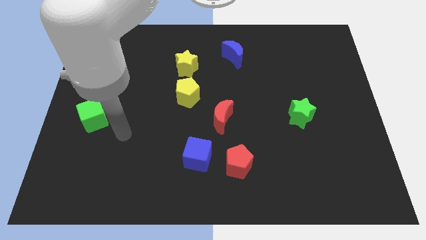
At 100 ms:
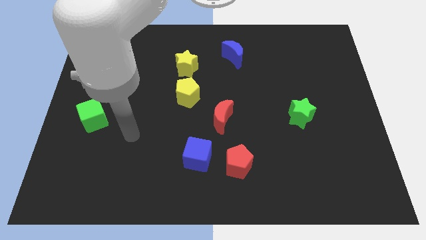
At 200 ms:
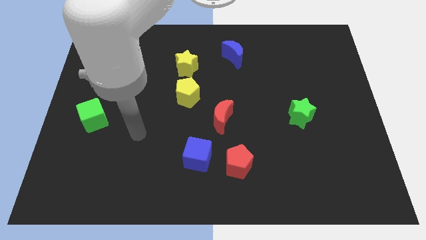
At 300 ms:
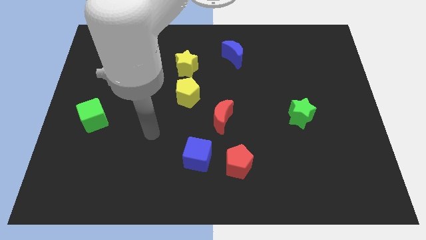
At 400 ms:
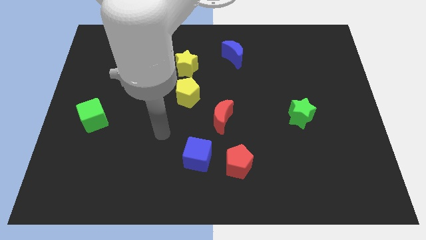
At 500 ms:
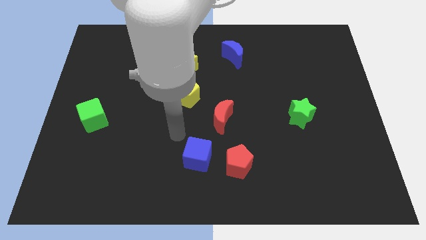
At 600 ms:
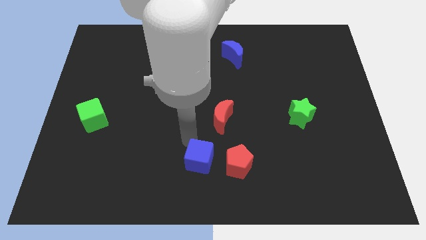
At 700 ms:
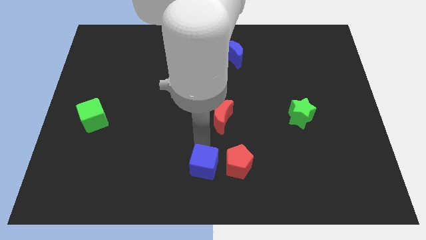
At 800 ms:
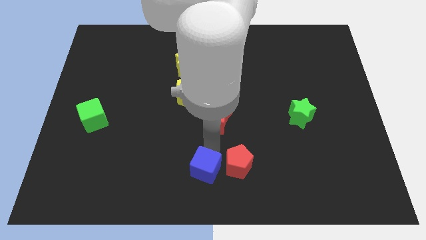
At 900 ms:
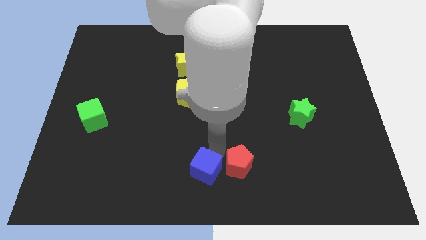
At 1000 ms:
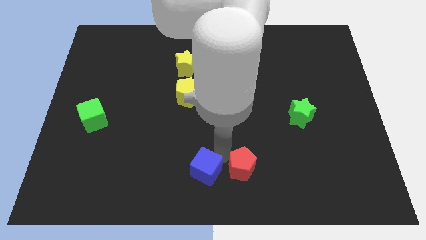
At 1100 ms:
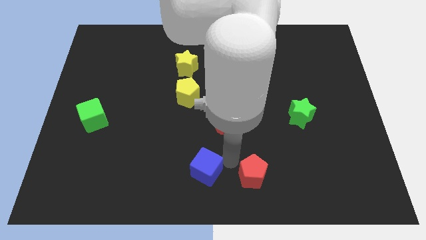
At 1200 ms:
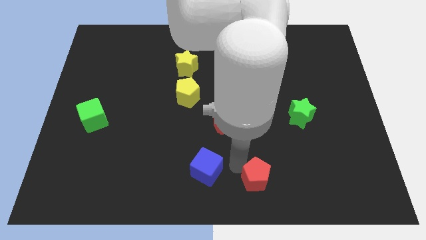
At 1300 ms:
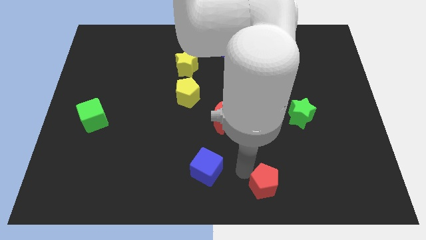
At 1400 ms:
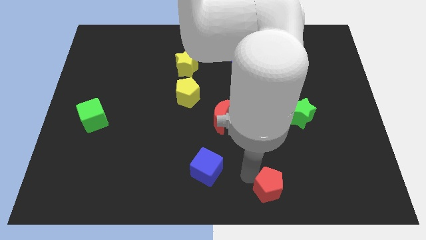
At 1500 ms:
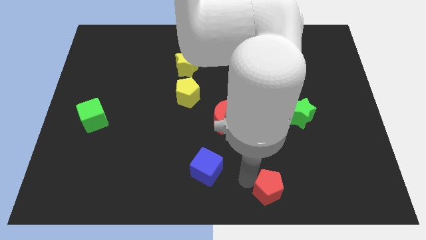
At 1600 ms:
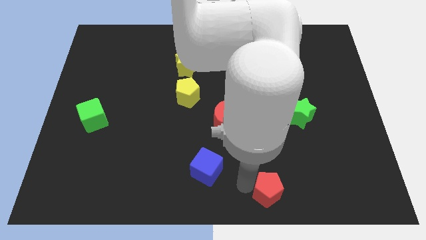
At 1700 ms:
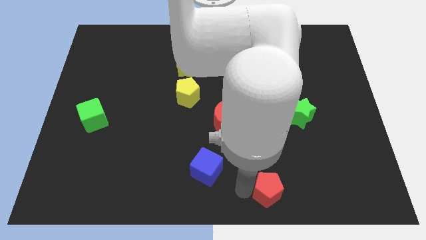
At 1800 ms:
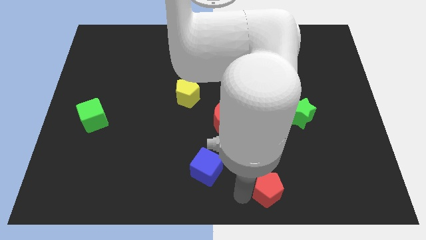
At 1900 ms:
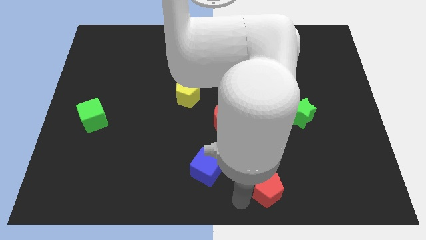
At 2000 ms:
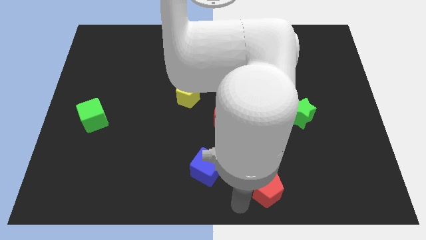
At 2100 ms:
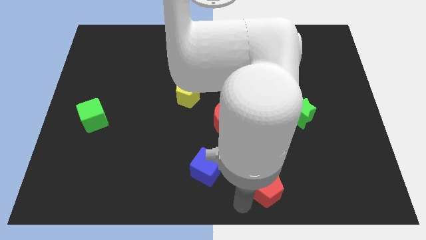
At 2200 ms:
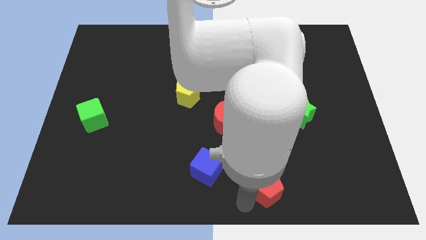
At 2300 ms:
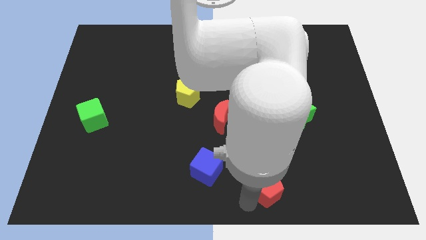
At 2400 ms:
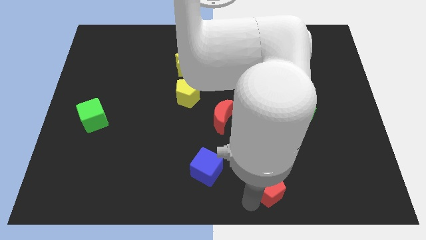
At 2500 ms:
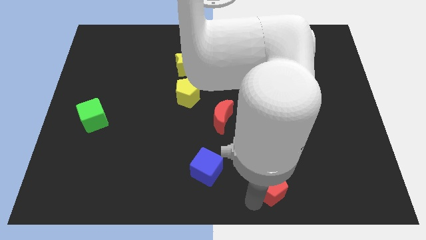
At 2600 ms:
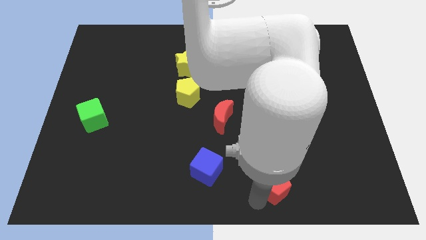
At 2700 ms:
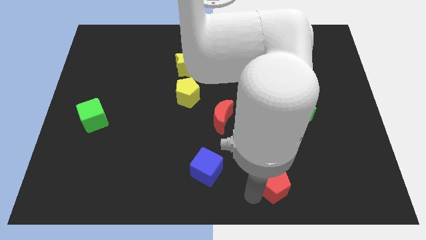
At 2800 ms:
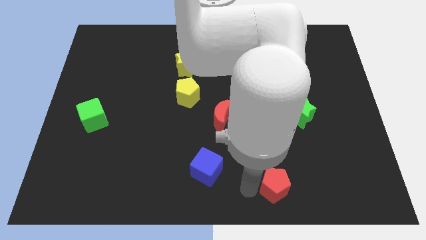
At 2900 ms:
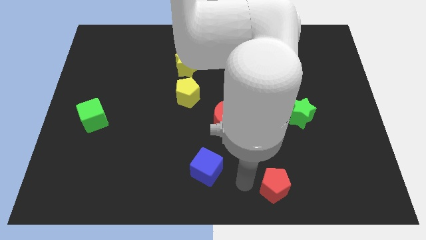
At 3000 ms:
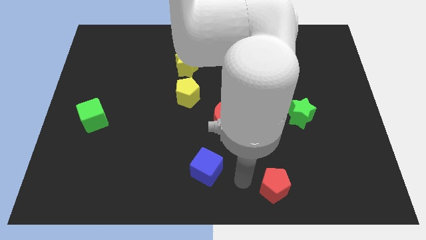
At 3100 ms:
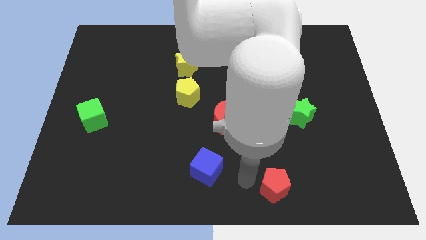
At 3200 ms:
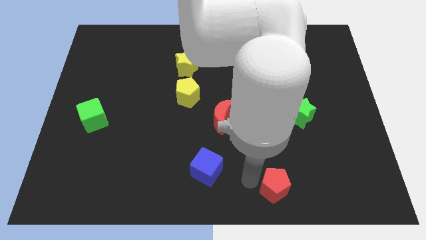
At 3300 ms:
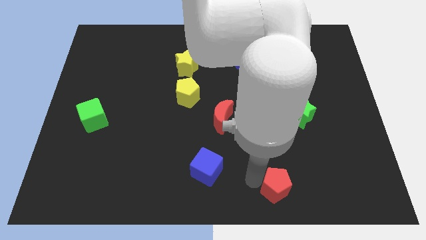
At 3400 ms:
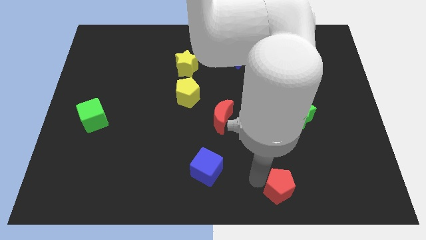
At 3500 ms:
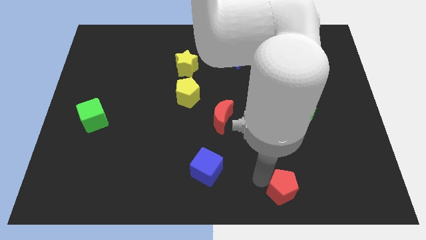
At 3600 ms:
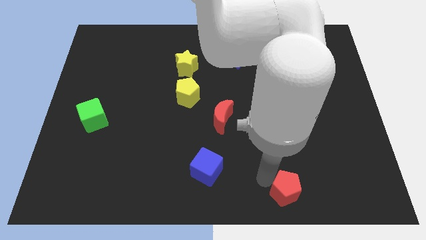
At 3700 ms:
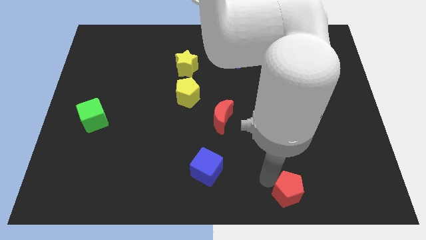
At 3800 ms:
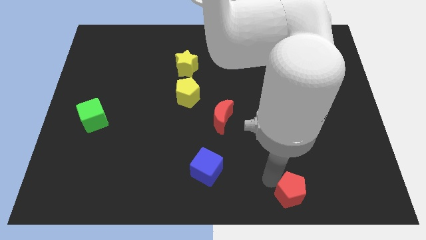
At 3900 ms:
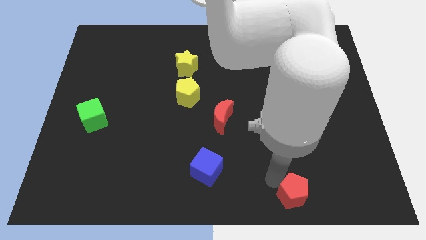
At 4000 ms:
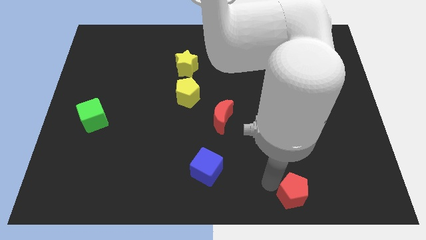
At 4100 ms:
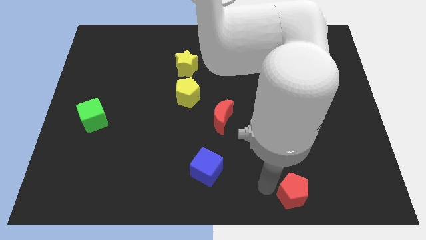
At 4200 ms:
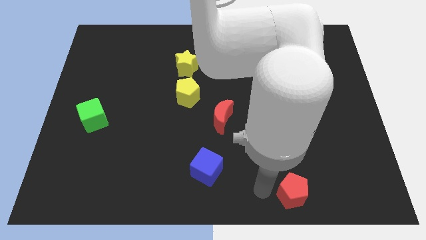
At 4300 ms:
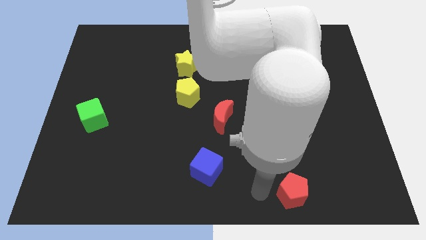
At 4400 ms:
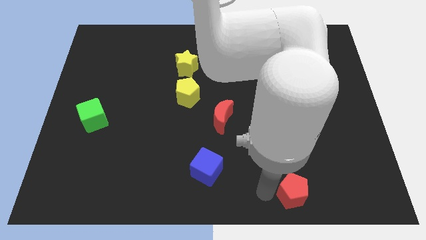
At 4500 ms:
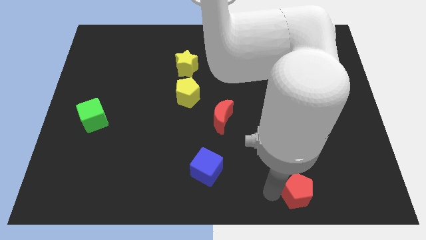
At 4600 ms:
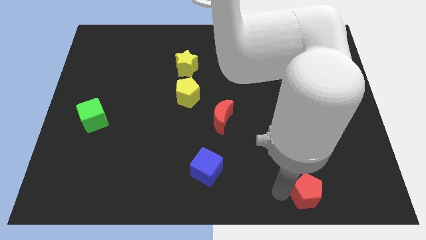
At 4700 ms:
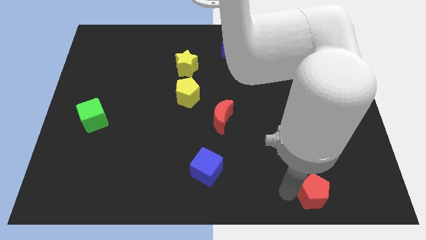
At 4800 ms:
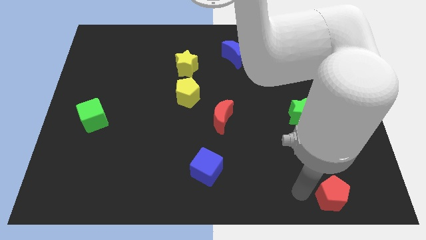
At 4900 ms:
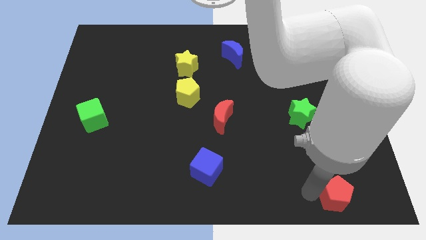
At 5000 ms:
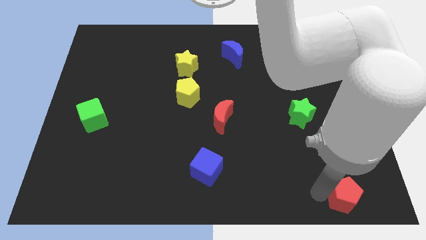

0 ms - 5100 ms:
slide the red pentagon to the bottom right of the board

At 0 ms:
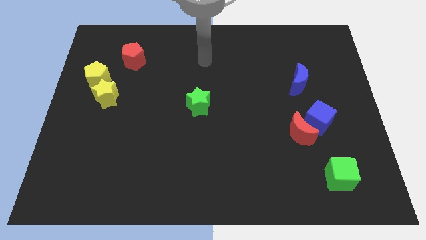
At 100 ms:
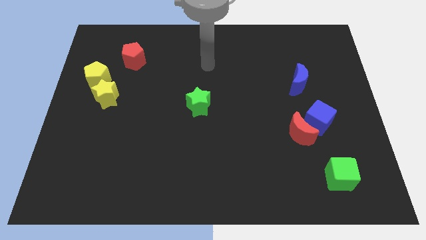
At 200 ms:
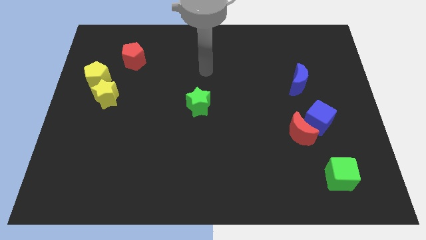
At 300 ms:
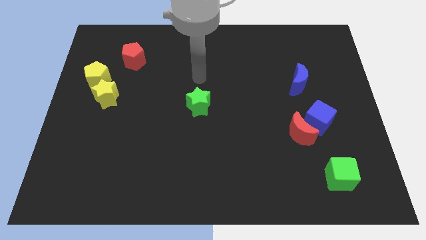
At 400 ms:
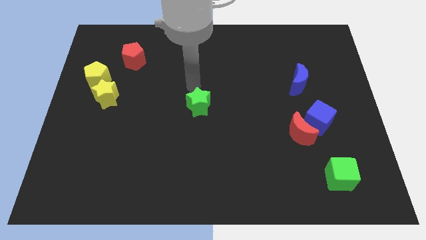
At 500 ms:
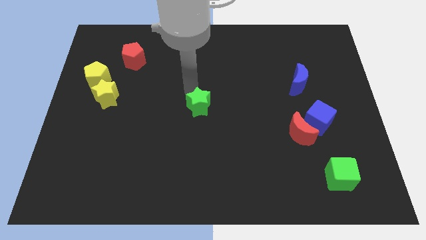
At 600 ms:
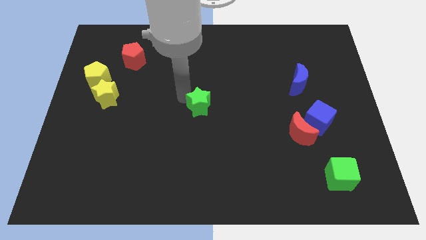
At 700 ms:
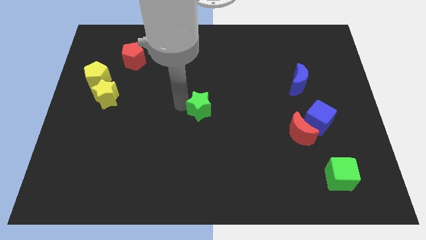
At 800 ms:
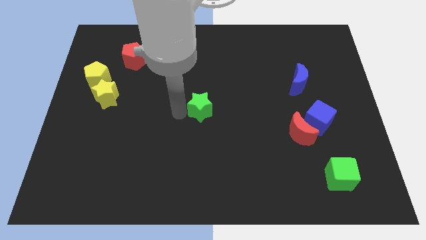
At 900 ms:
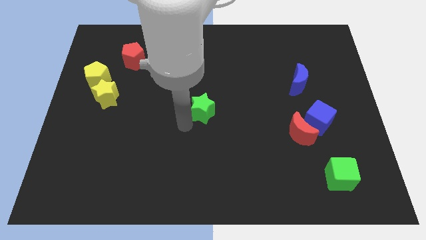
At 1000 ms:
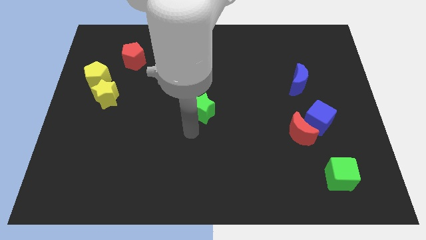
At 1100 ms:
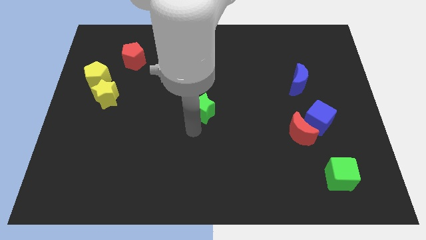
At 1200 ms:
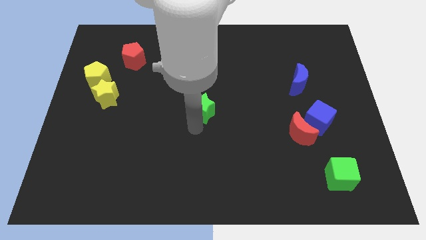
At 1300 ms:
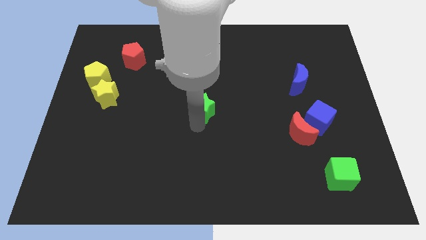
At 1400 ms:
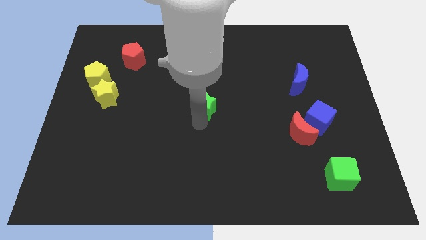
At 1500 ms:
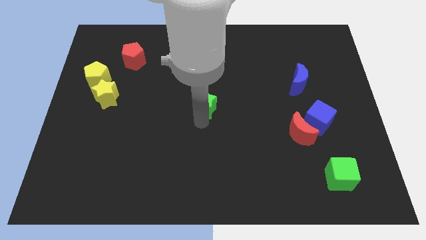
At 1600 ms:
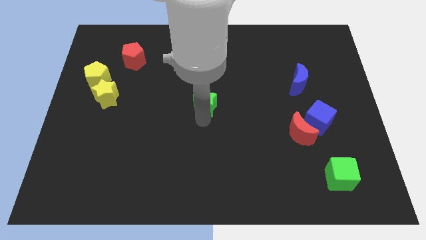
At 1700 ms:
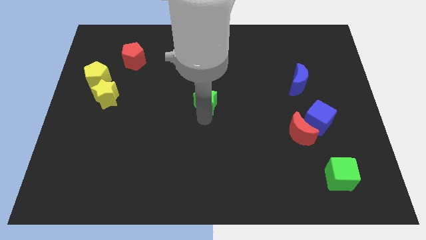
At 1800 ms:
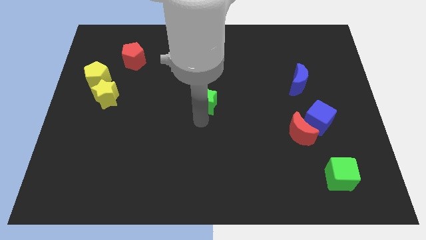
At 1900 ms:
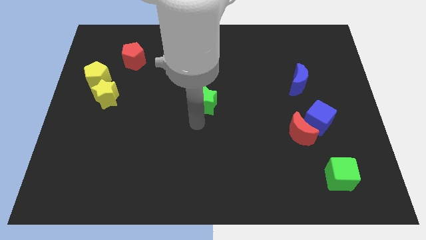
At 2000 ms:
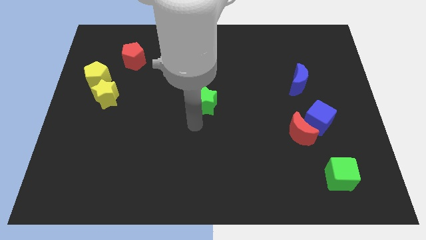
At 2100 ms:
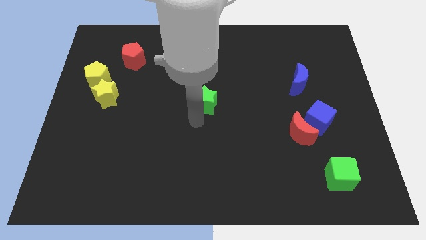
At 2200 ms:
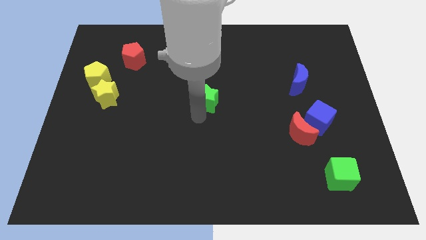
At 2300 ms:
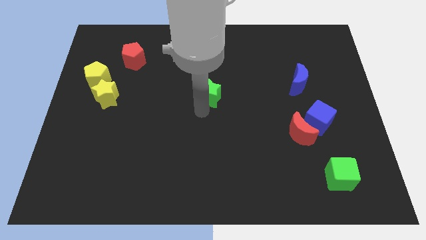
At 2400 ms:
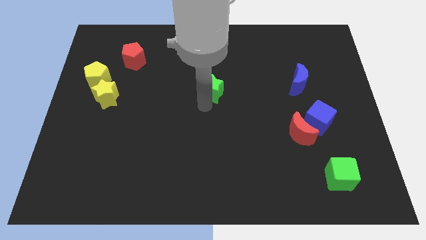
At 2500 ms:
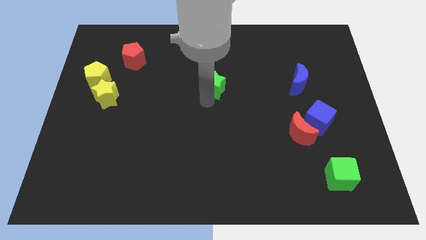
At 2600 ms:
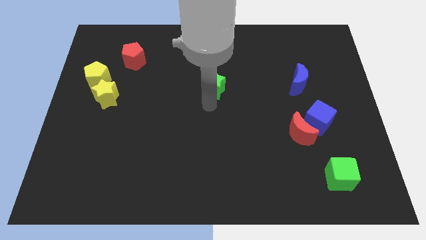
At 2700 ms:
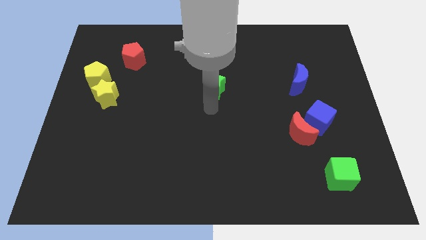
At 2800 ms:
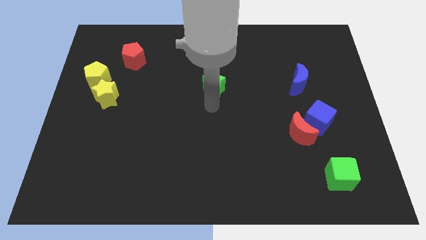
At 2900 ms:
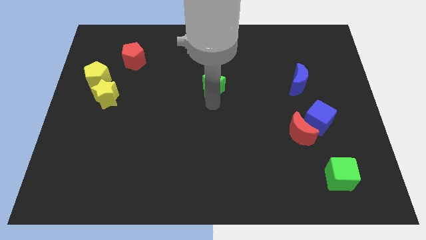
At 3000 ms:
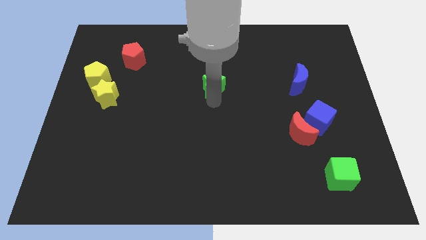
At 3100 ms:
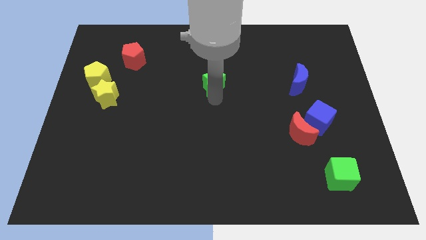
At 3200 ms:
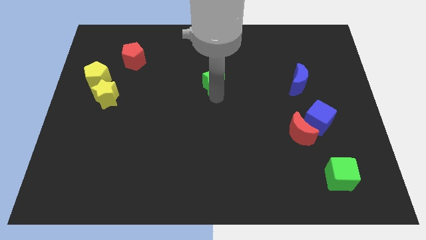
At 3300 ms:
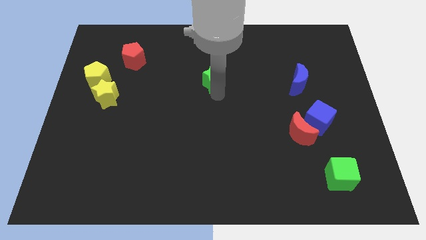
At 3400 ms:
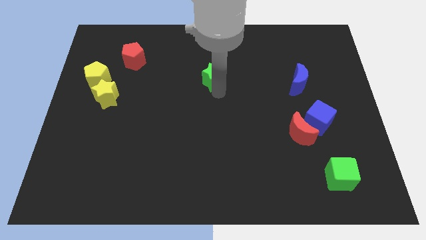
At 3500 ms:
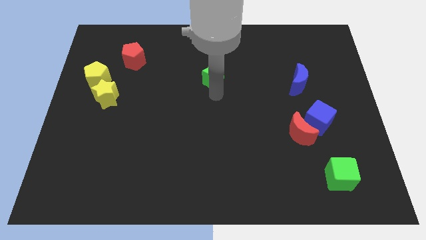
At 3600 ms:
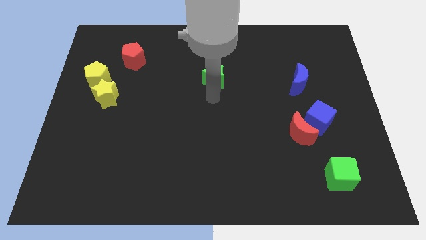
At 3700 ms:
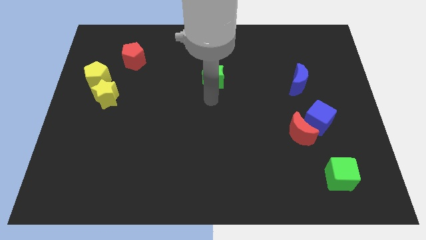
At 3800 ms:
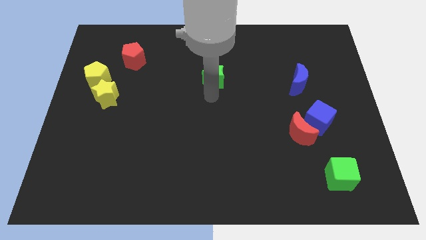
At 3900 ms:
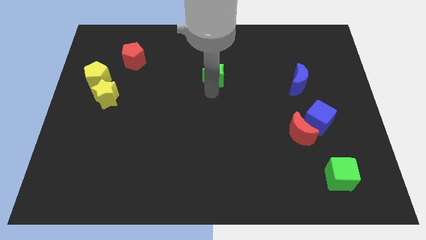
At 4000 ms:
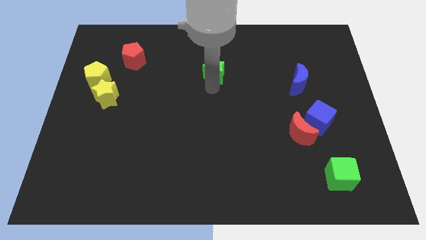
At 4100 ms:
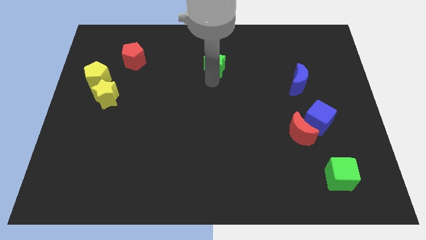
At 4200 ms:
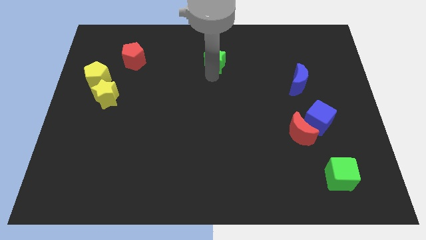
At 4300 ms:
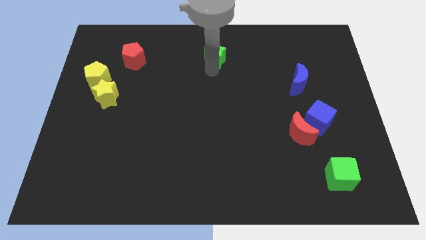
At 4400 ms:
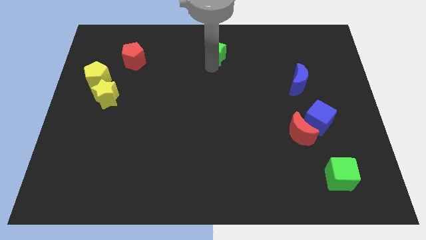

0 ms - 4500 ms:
put the green star to the top
